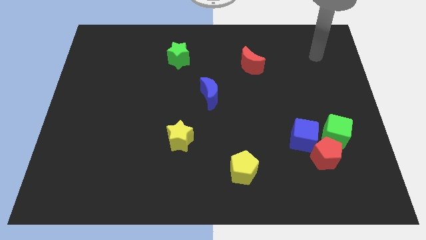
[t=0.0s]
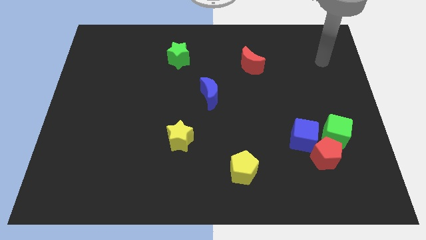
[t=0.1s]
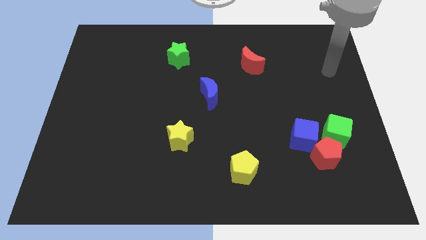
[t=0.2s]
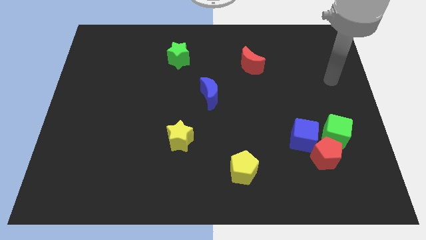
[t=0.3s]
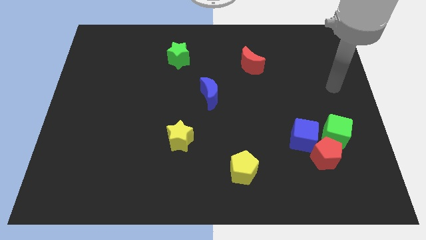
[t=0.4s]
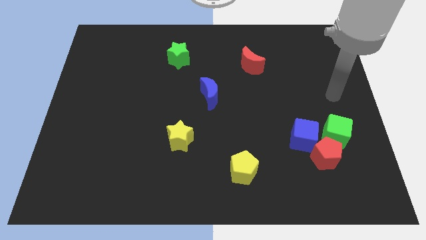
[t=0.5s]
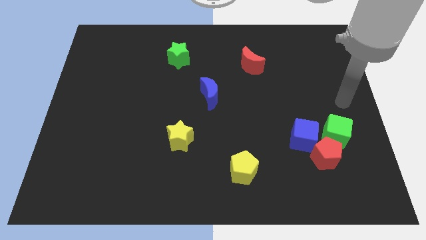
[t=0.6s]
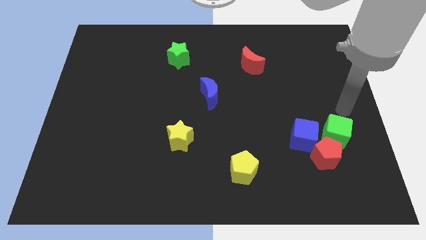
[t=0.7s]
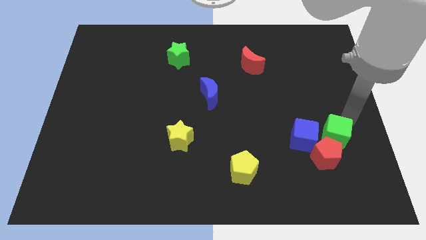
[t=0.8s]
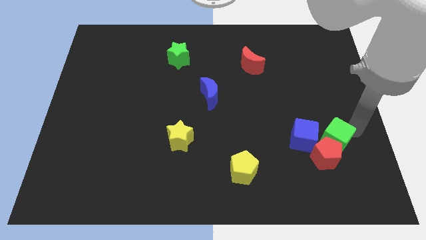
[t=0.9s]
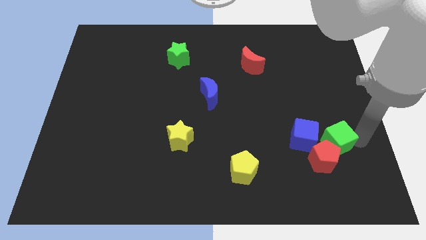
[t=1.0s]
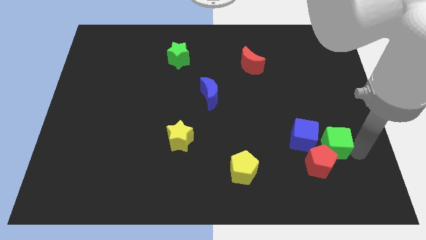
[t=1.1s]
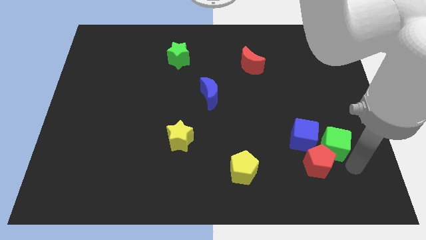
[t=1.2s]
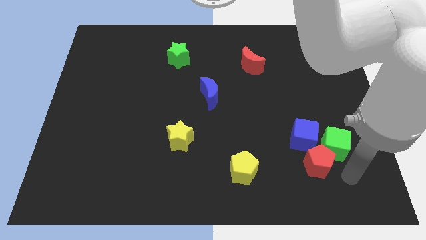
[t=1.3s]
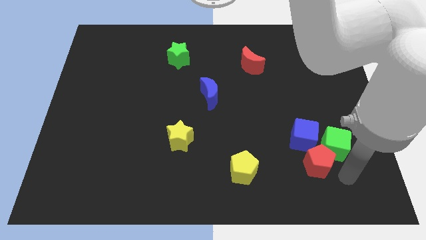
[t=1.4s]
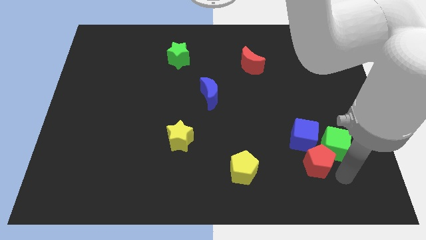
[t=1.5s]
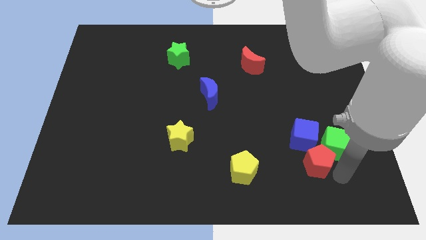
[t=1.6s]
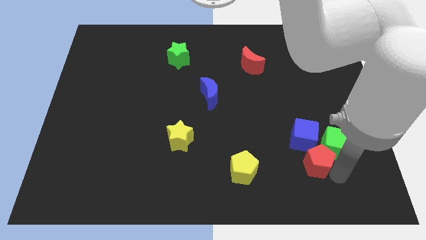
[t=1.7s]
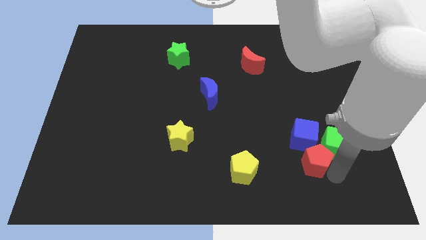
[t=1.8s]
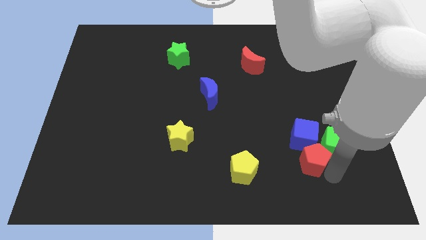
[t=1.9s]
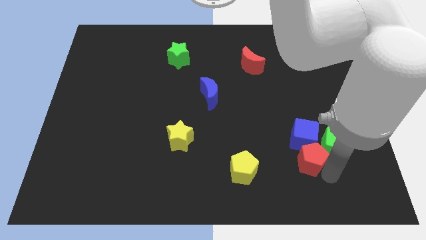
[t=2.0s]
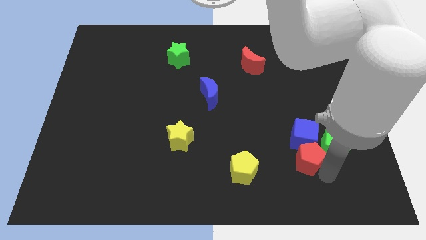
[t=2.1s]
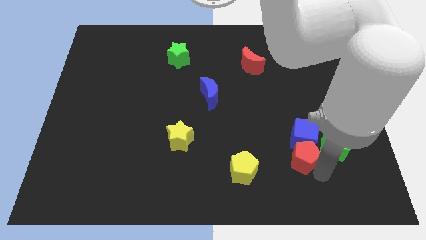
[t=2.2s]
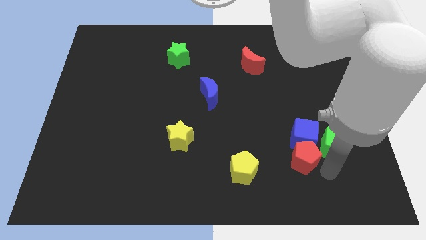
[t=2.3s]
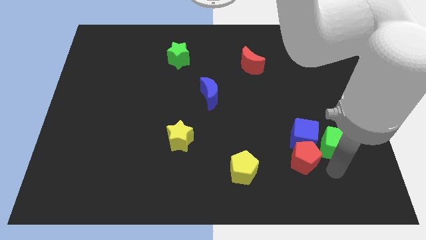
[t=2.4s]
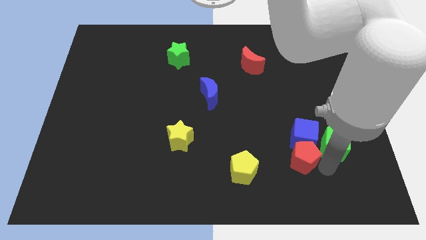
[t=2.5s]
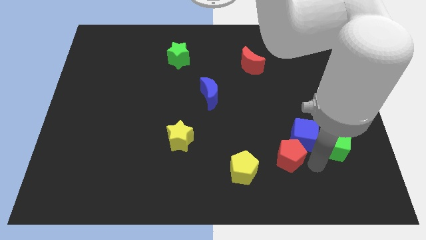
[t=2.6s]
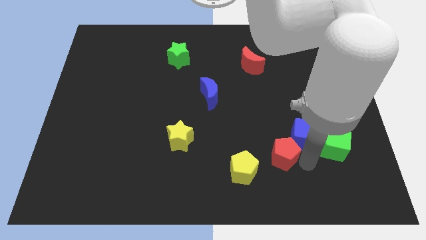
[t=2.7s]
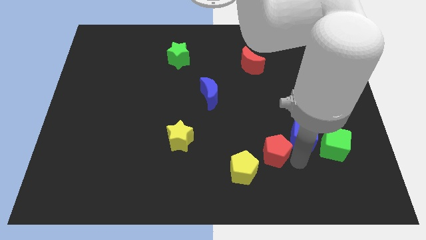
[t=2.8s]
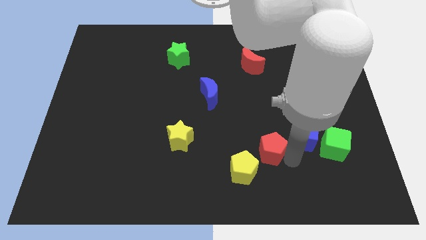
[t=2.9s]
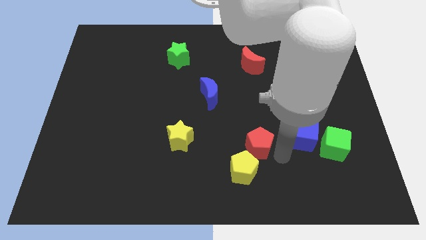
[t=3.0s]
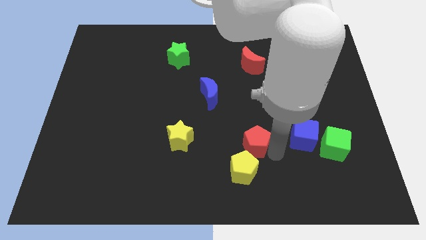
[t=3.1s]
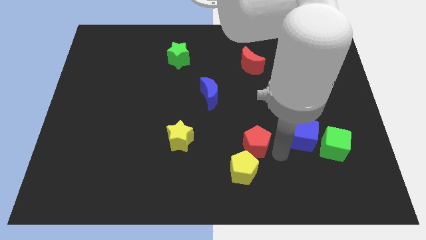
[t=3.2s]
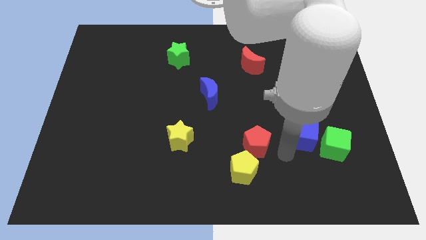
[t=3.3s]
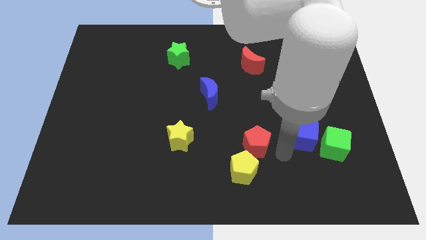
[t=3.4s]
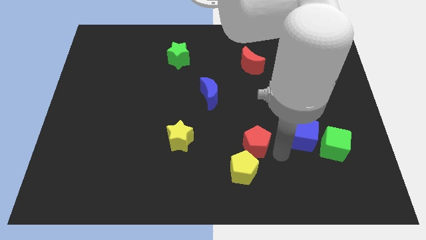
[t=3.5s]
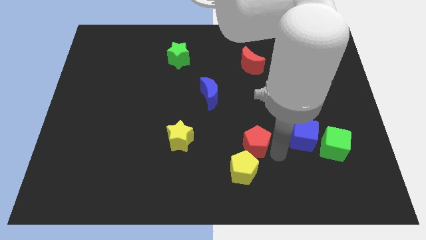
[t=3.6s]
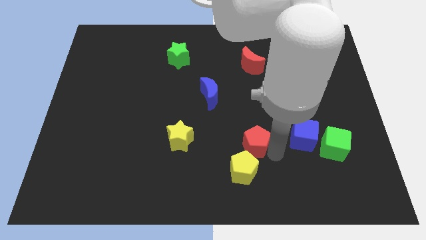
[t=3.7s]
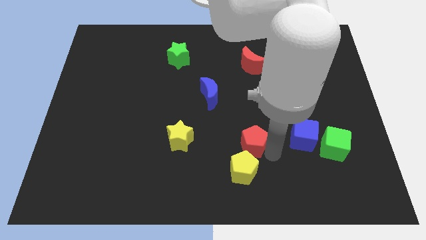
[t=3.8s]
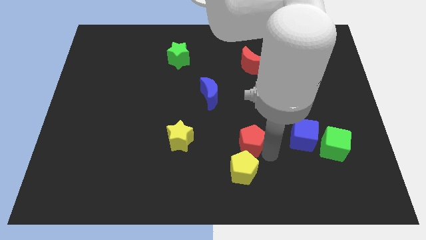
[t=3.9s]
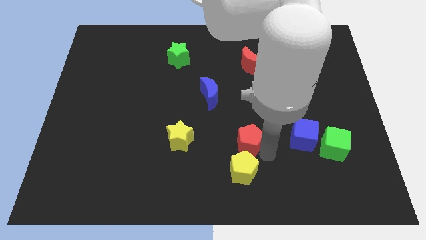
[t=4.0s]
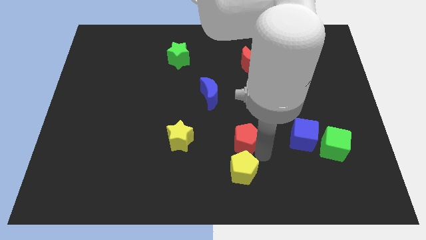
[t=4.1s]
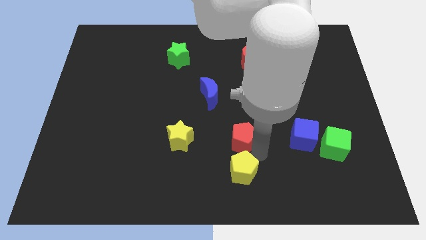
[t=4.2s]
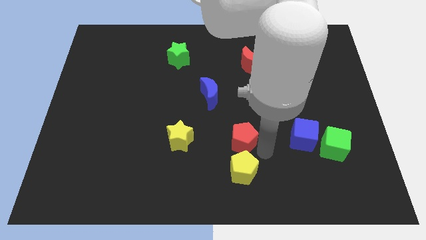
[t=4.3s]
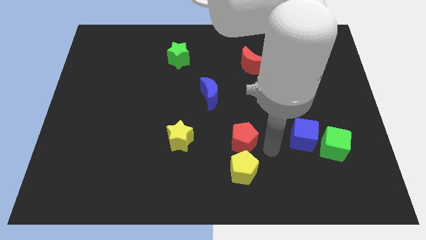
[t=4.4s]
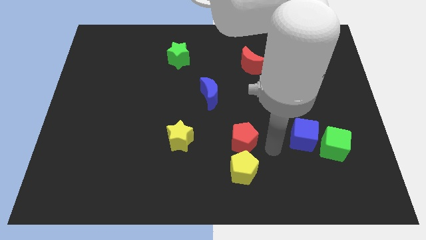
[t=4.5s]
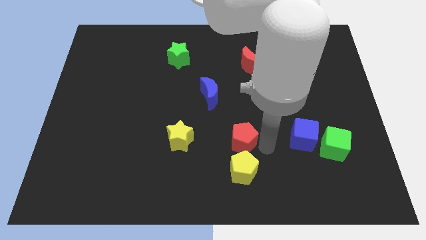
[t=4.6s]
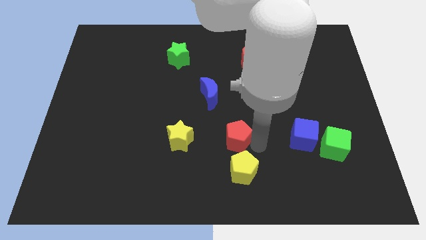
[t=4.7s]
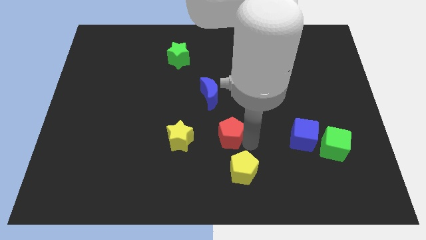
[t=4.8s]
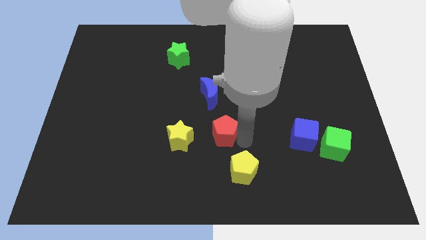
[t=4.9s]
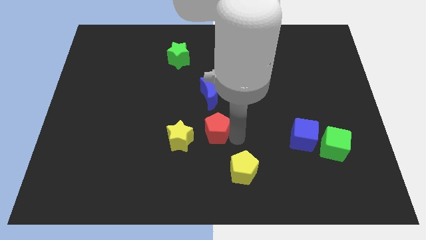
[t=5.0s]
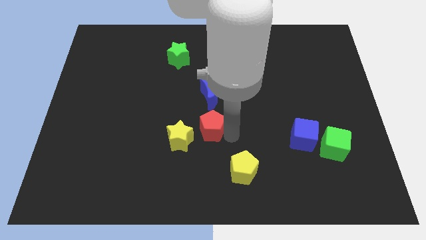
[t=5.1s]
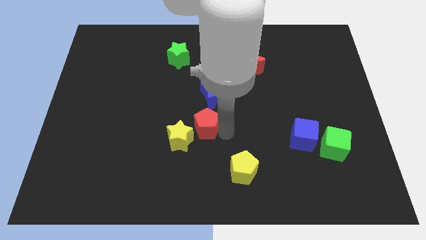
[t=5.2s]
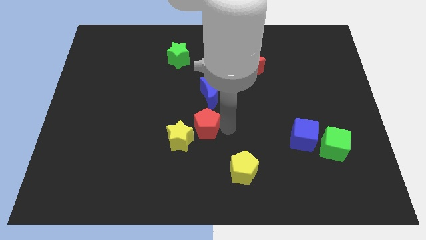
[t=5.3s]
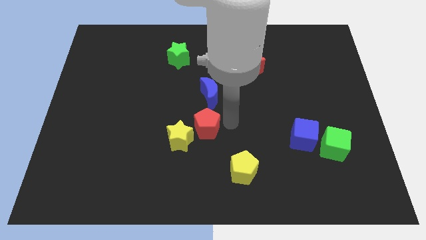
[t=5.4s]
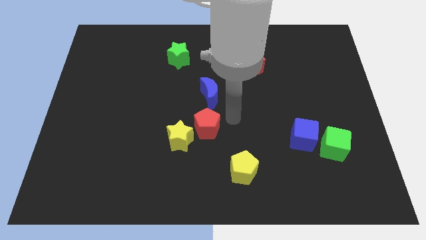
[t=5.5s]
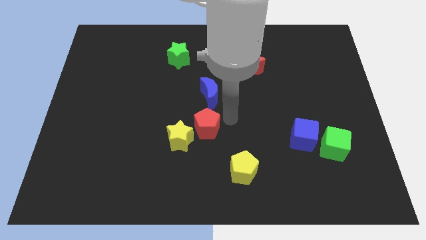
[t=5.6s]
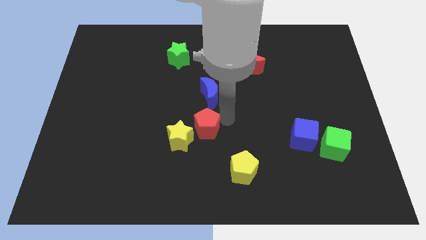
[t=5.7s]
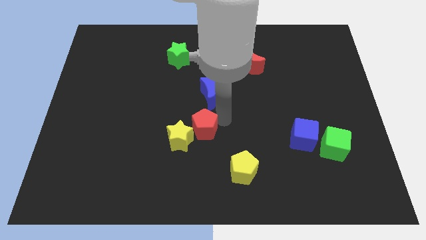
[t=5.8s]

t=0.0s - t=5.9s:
slide the red pentagon close to the yellow star

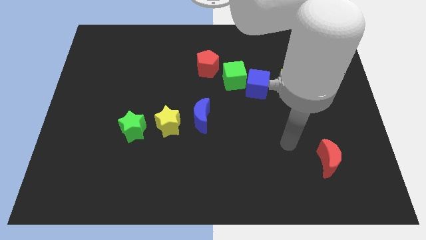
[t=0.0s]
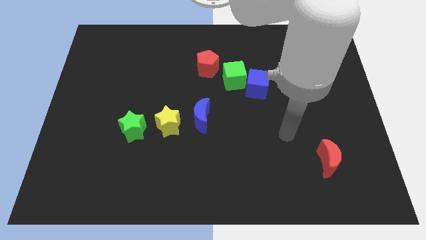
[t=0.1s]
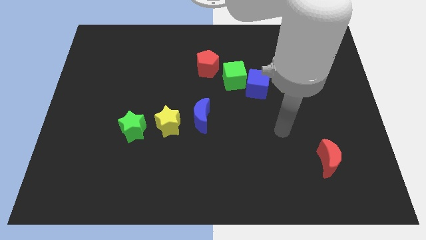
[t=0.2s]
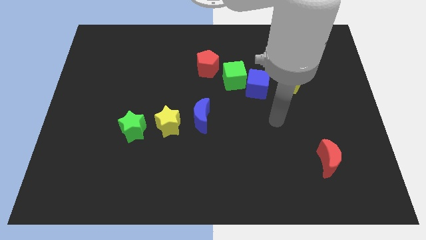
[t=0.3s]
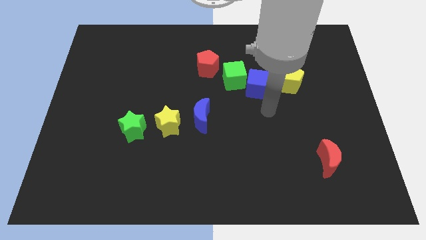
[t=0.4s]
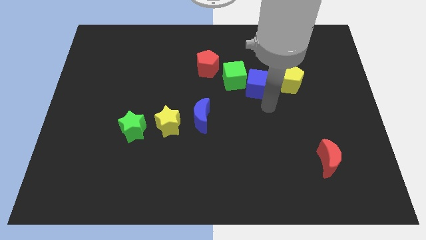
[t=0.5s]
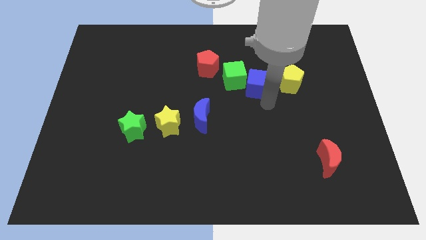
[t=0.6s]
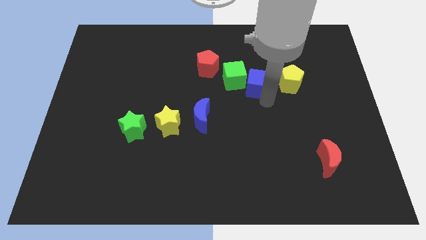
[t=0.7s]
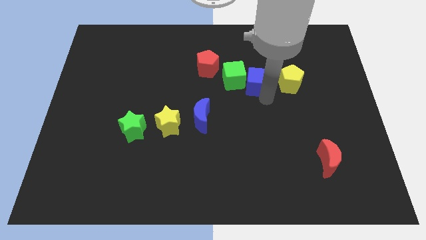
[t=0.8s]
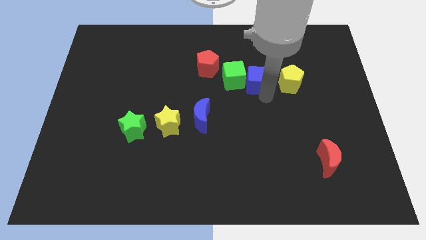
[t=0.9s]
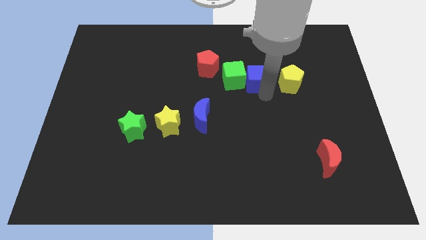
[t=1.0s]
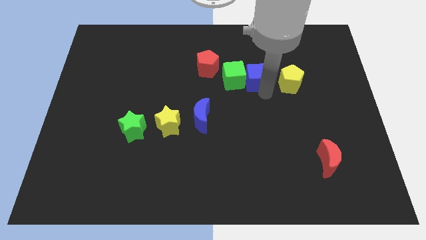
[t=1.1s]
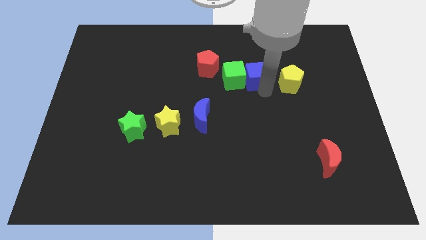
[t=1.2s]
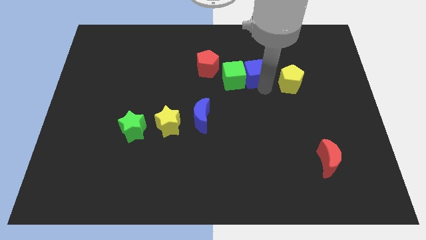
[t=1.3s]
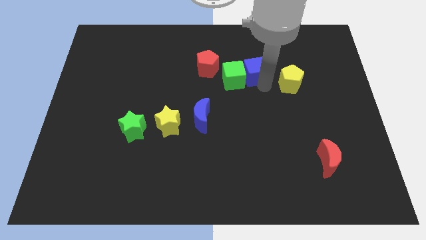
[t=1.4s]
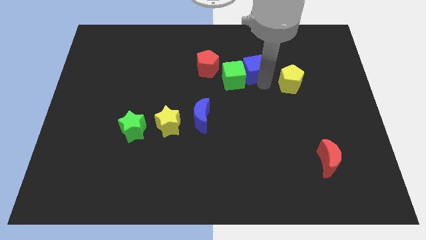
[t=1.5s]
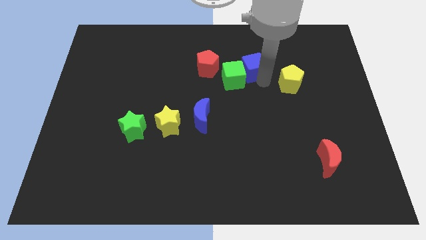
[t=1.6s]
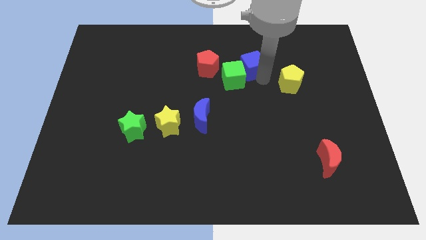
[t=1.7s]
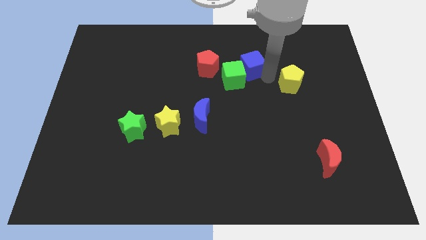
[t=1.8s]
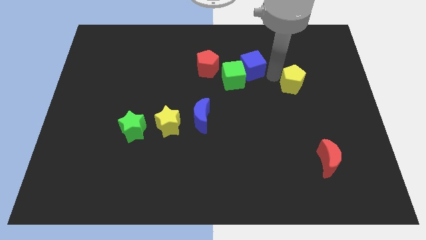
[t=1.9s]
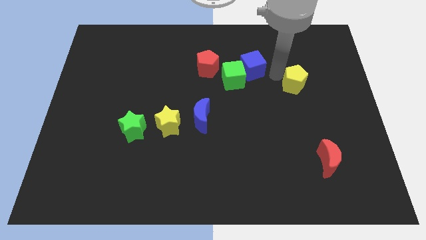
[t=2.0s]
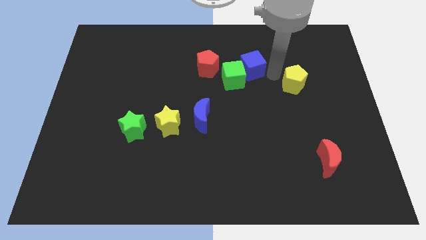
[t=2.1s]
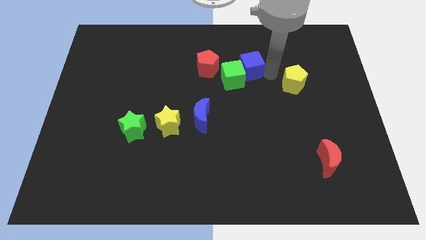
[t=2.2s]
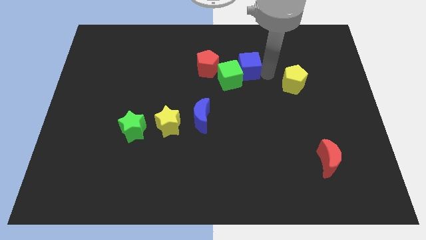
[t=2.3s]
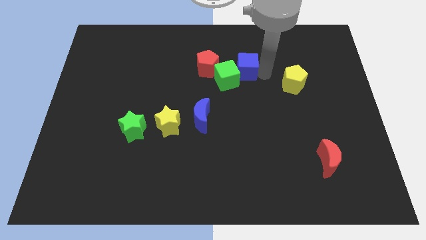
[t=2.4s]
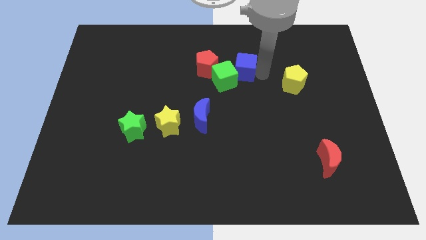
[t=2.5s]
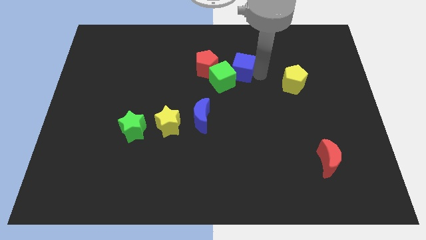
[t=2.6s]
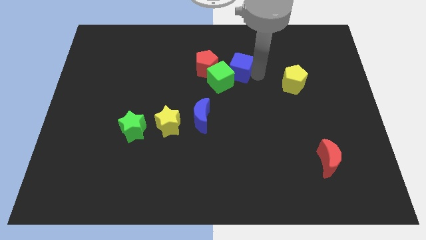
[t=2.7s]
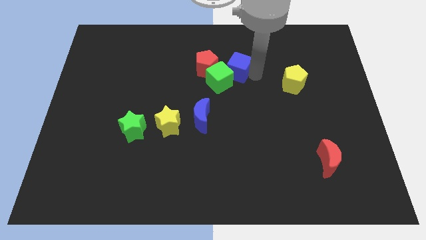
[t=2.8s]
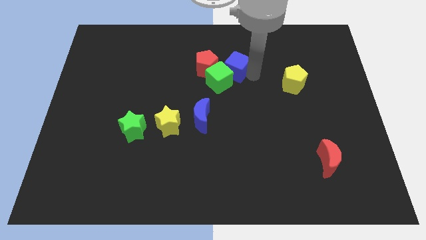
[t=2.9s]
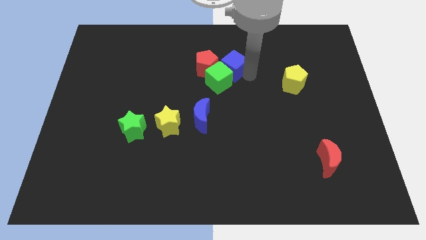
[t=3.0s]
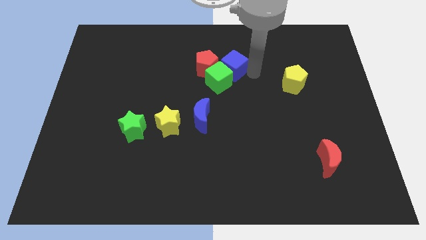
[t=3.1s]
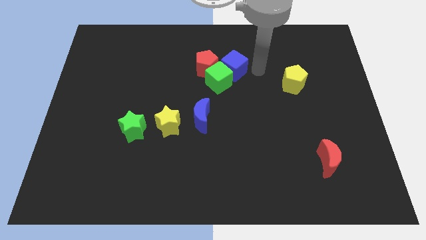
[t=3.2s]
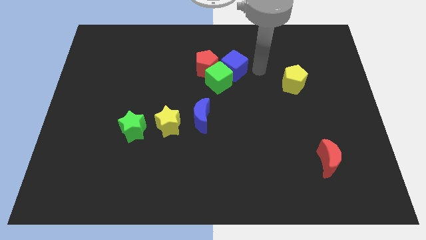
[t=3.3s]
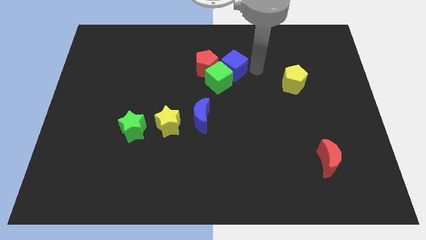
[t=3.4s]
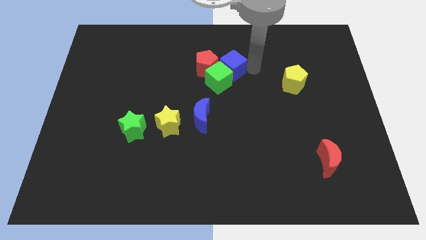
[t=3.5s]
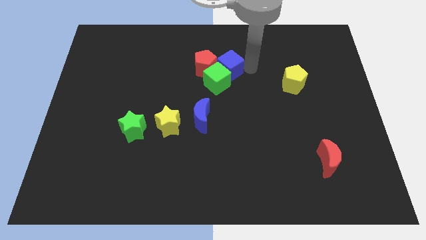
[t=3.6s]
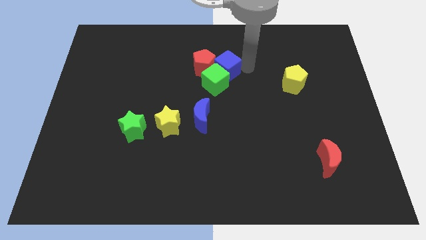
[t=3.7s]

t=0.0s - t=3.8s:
move the blue cube to the red pentagon
